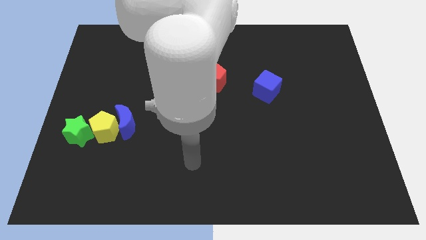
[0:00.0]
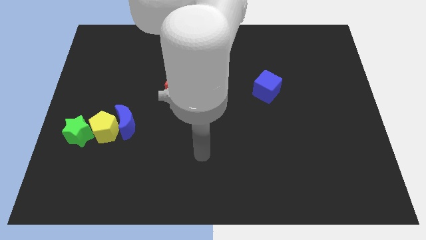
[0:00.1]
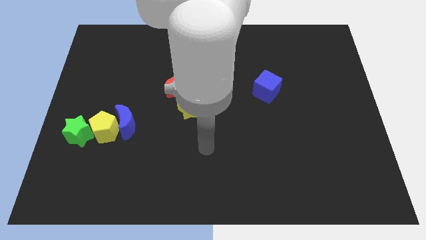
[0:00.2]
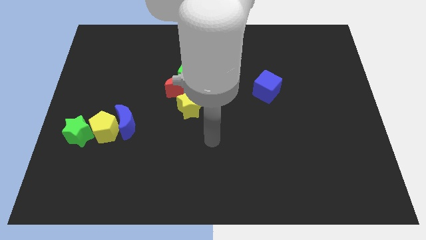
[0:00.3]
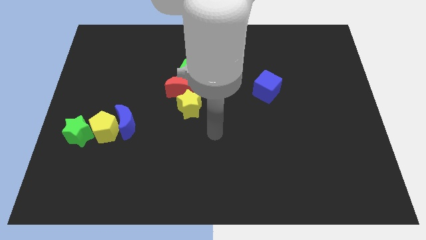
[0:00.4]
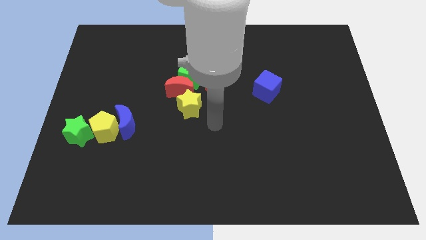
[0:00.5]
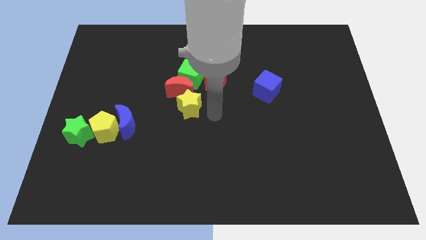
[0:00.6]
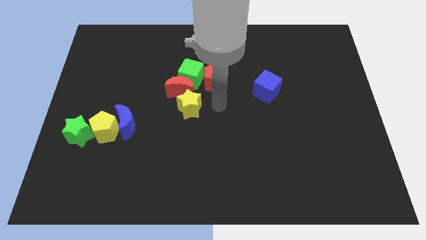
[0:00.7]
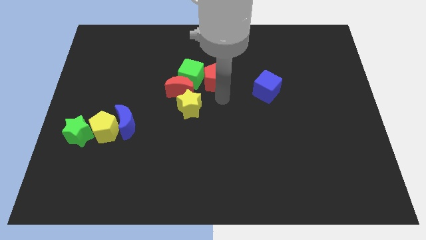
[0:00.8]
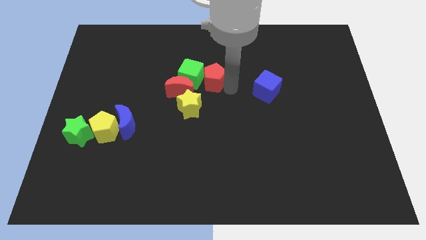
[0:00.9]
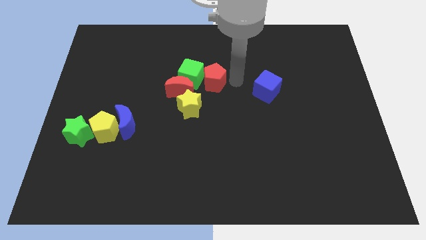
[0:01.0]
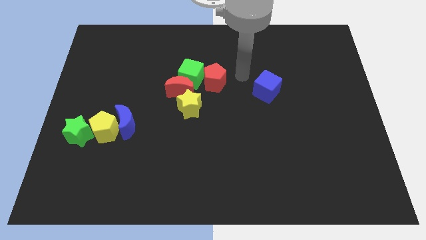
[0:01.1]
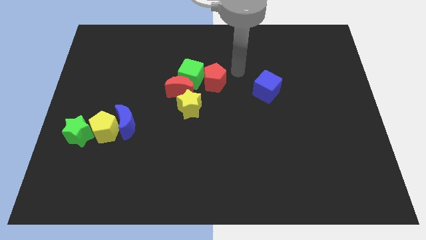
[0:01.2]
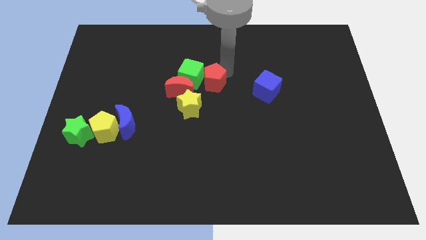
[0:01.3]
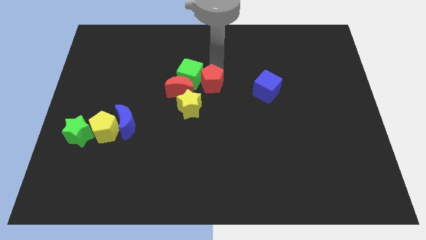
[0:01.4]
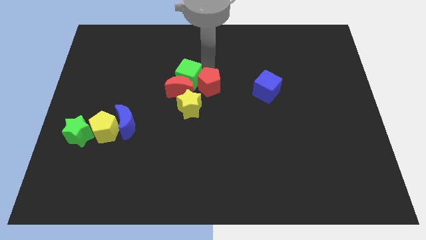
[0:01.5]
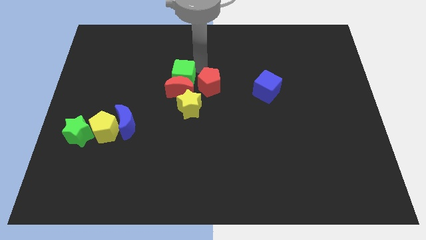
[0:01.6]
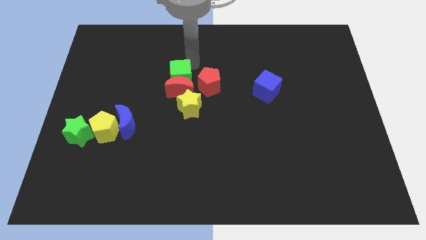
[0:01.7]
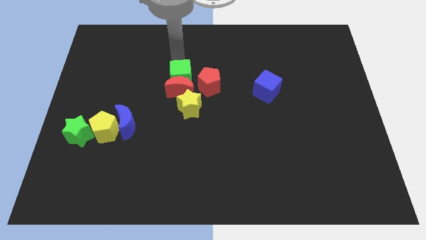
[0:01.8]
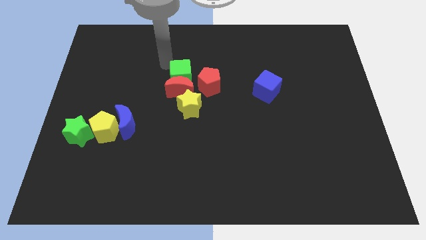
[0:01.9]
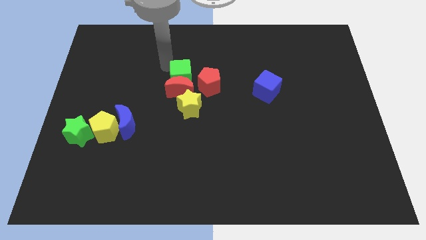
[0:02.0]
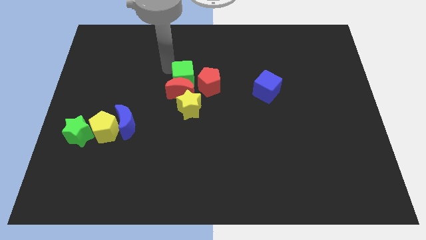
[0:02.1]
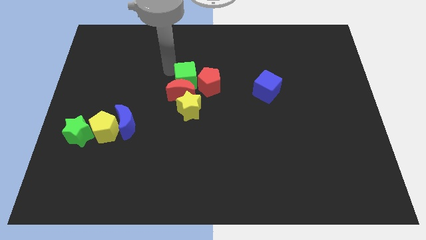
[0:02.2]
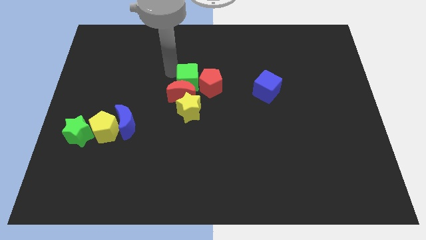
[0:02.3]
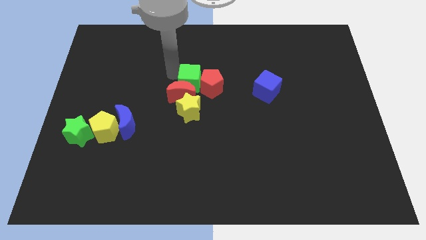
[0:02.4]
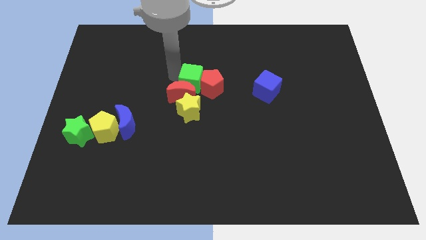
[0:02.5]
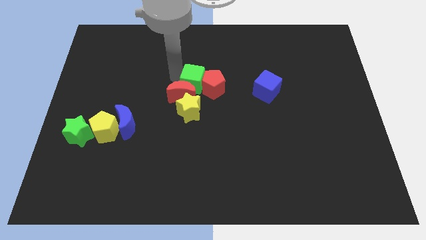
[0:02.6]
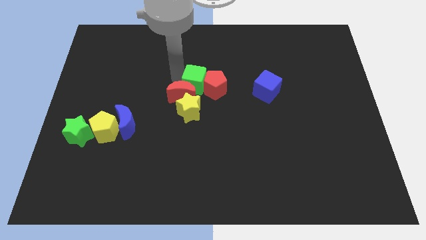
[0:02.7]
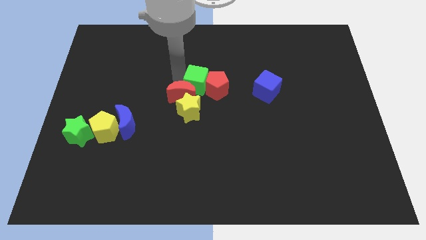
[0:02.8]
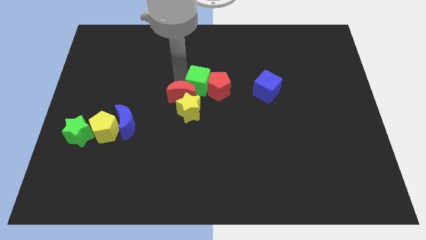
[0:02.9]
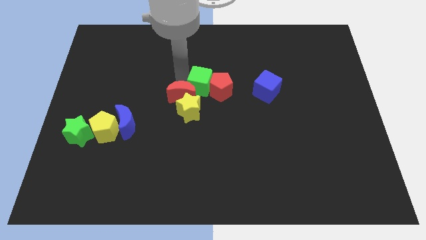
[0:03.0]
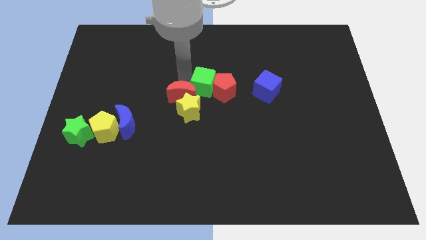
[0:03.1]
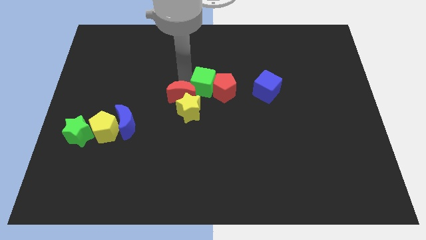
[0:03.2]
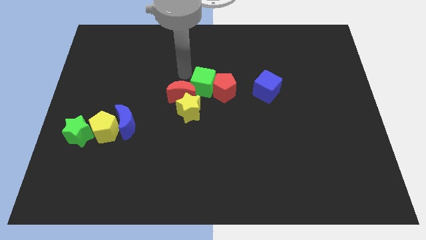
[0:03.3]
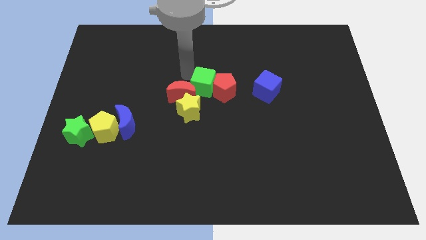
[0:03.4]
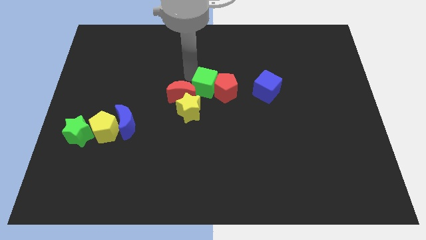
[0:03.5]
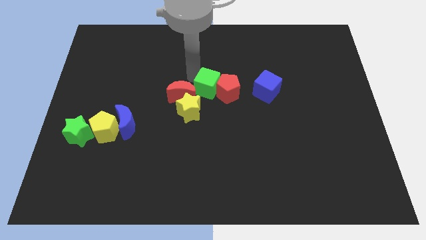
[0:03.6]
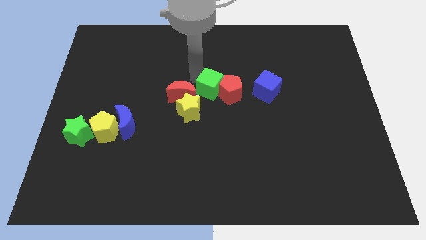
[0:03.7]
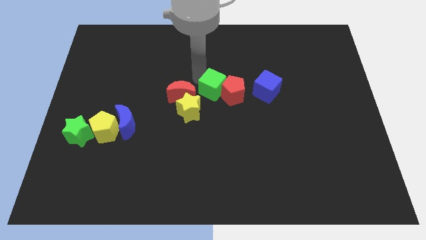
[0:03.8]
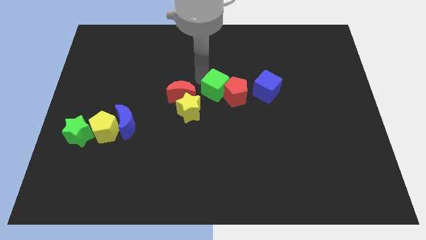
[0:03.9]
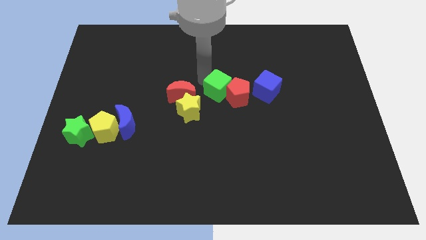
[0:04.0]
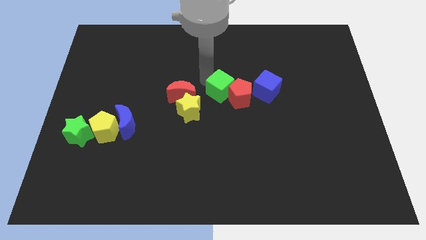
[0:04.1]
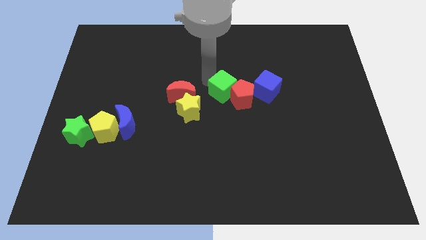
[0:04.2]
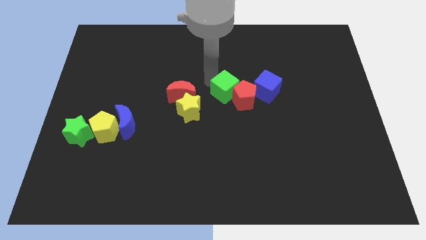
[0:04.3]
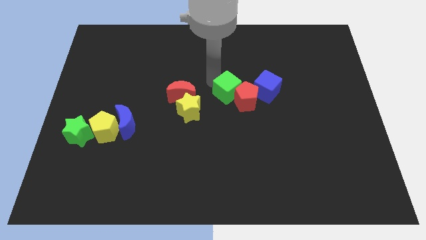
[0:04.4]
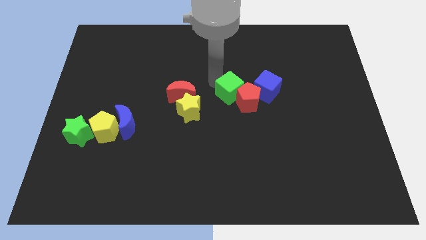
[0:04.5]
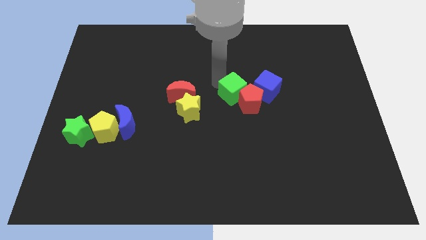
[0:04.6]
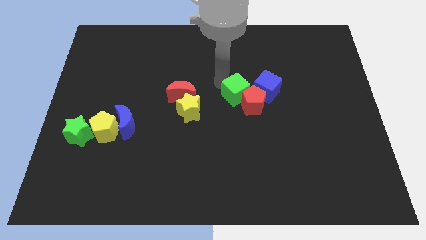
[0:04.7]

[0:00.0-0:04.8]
put the green cube diagonally down and to the left of the blue cube

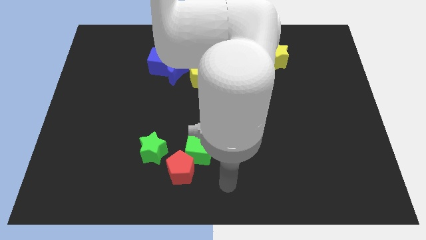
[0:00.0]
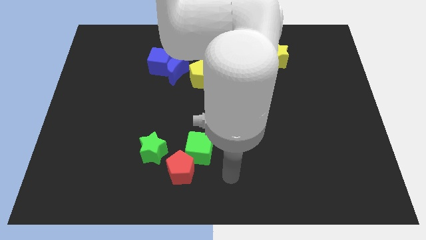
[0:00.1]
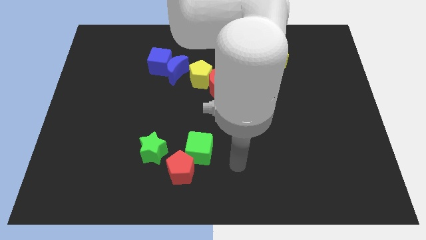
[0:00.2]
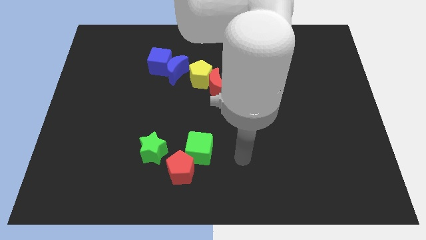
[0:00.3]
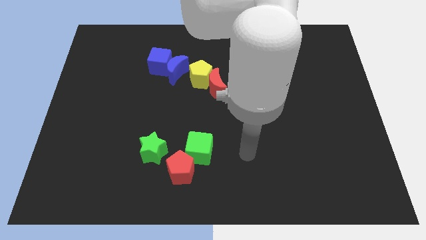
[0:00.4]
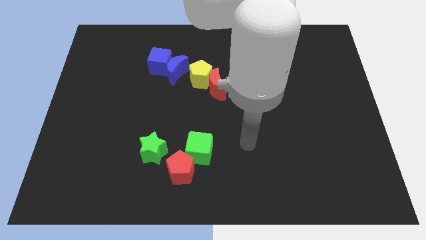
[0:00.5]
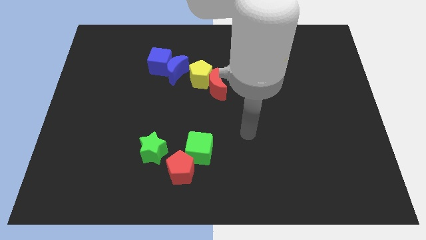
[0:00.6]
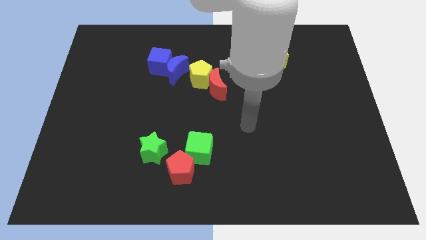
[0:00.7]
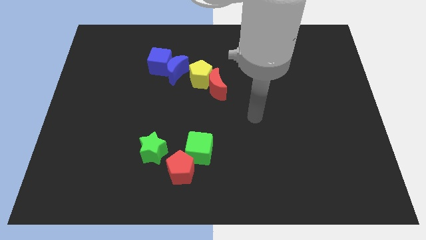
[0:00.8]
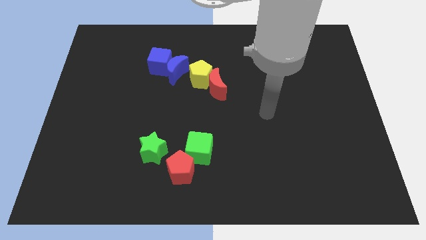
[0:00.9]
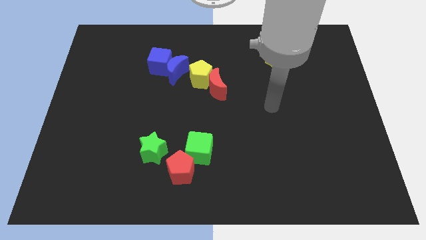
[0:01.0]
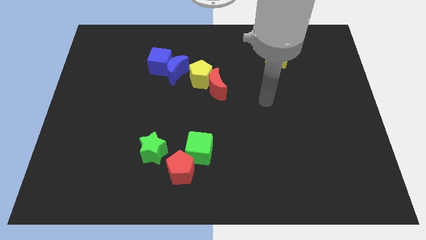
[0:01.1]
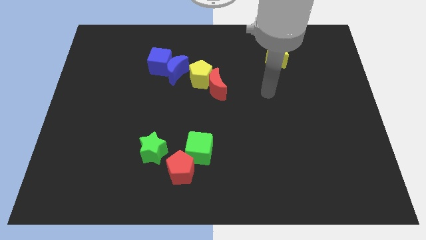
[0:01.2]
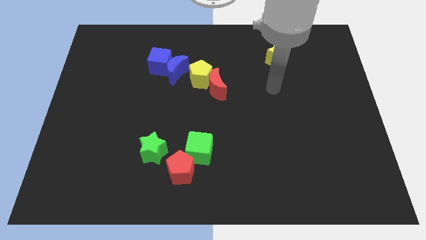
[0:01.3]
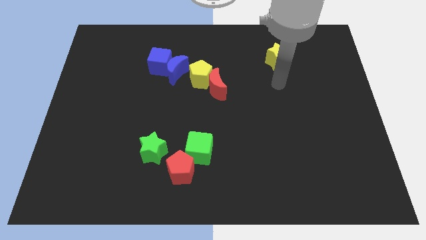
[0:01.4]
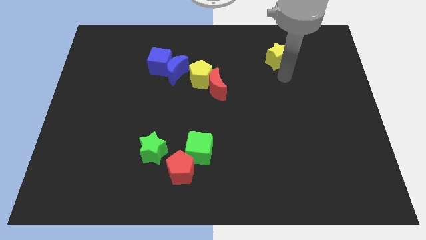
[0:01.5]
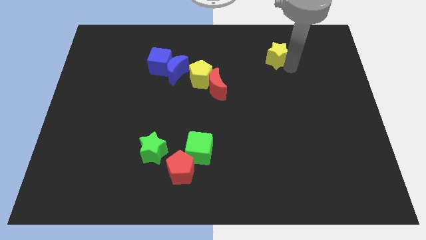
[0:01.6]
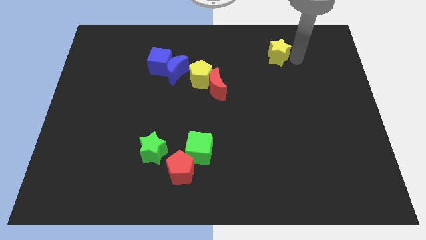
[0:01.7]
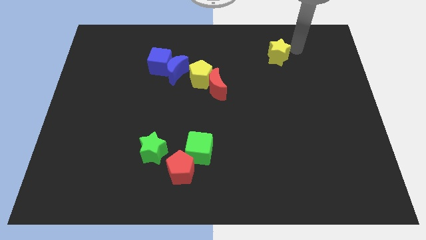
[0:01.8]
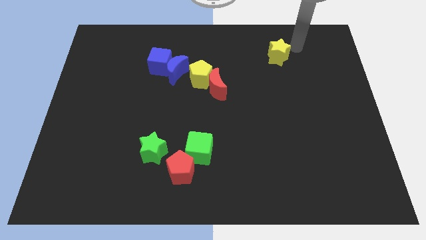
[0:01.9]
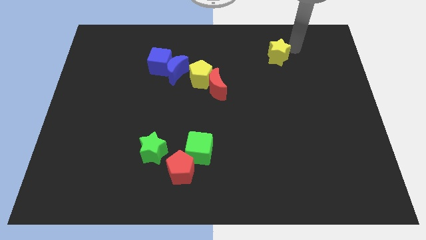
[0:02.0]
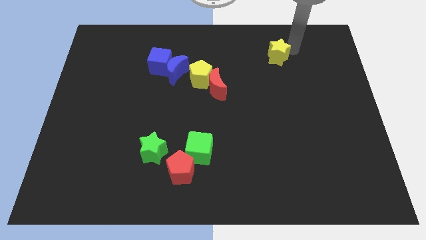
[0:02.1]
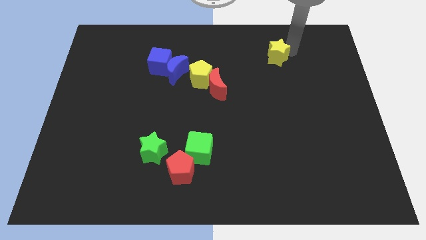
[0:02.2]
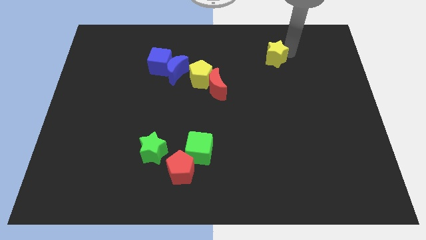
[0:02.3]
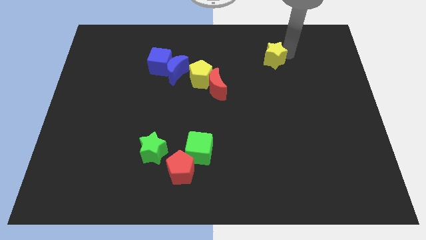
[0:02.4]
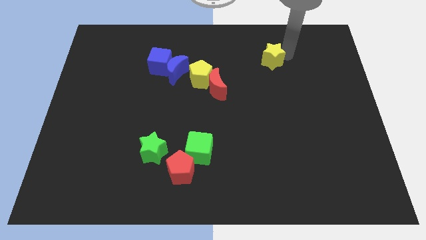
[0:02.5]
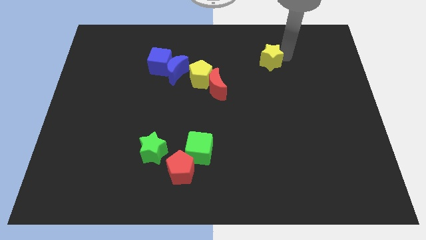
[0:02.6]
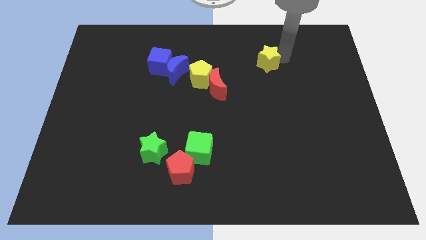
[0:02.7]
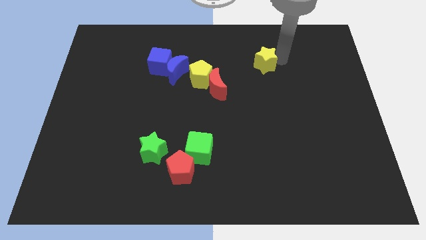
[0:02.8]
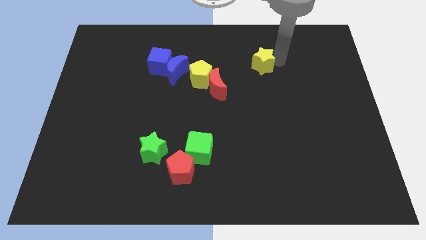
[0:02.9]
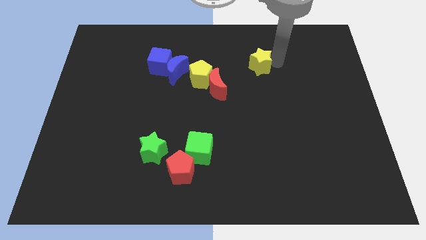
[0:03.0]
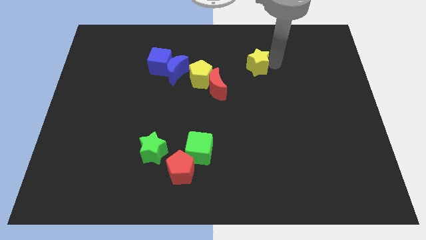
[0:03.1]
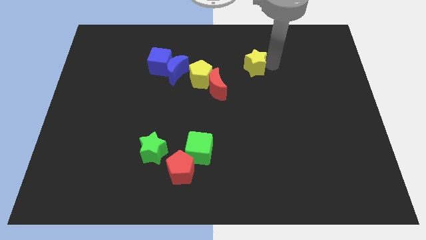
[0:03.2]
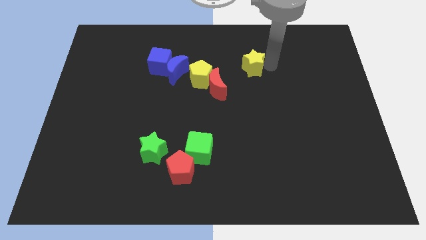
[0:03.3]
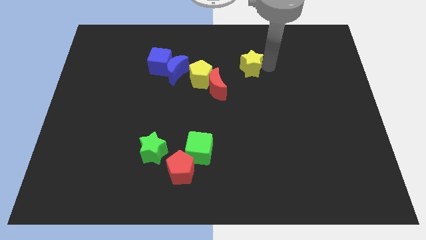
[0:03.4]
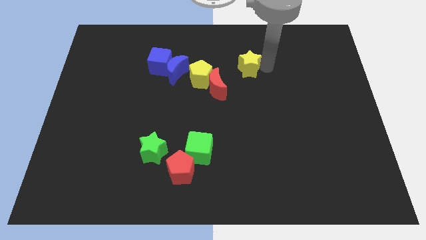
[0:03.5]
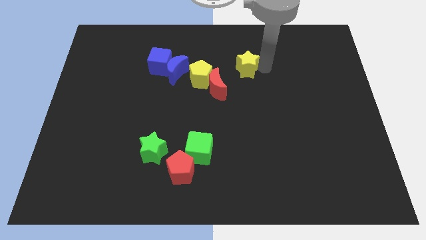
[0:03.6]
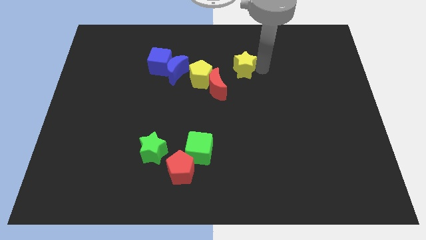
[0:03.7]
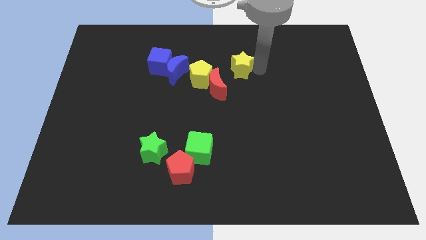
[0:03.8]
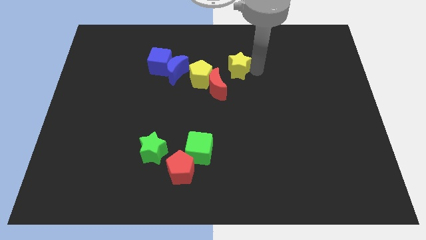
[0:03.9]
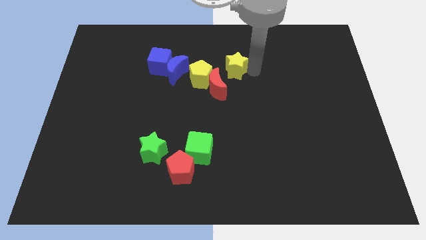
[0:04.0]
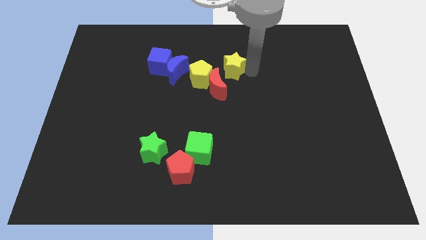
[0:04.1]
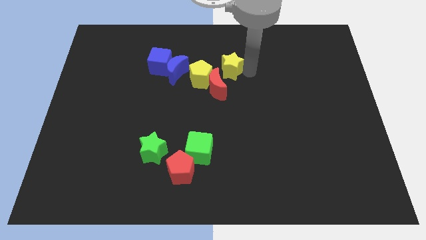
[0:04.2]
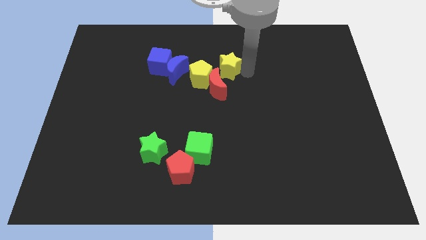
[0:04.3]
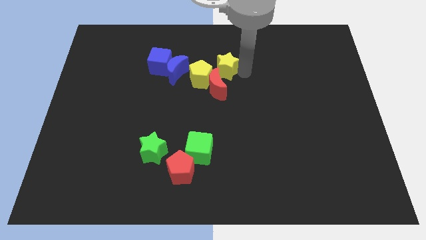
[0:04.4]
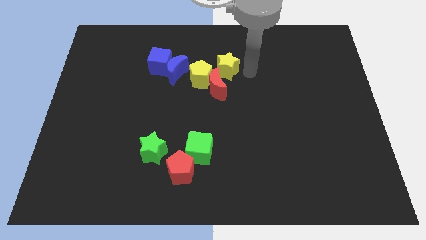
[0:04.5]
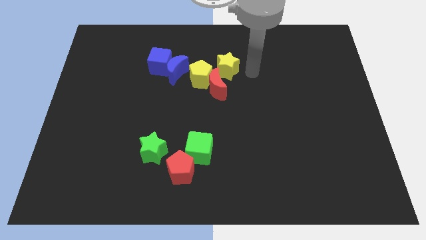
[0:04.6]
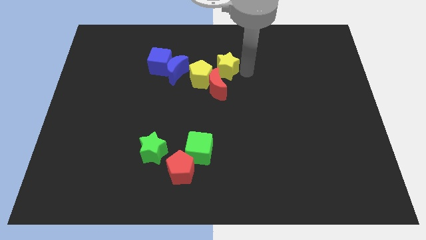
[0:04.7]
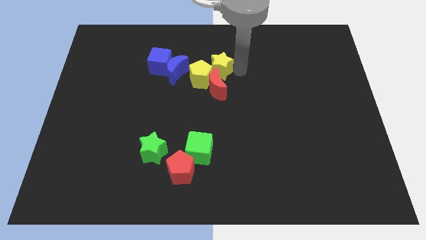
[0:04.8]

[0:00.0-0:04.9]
put the yellow star to the right side of the blue cube
